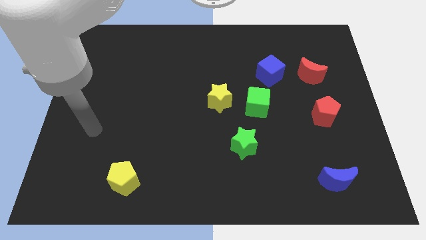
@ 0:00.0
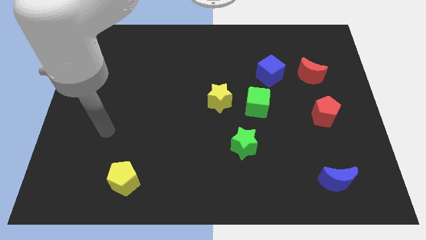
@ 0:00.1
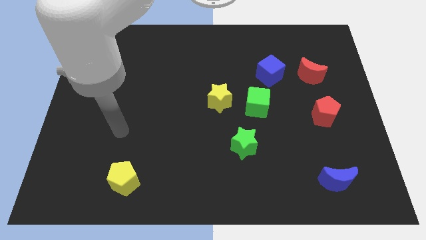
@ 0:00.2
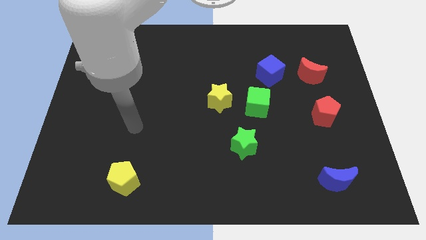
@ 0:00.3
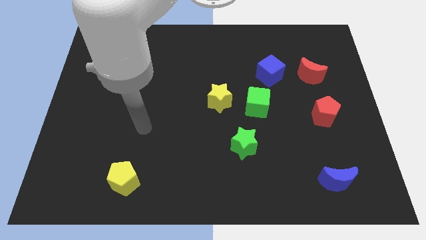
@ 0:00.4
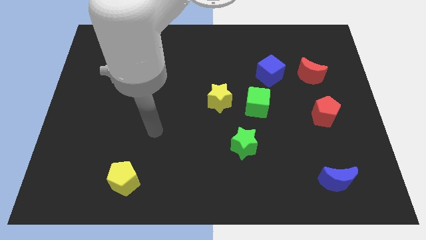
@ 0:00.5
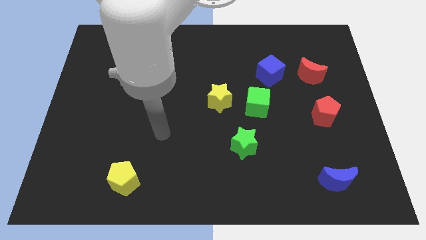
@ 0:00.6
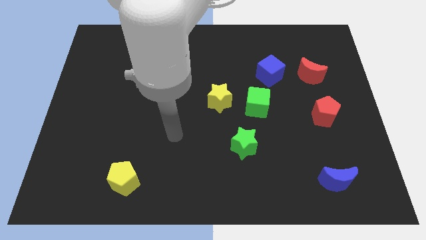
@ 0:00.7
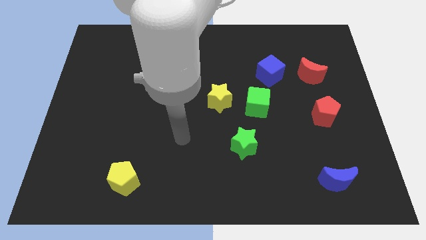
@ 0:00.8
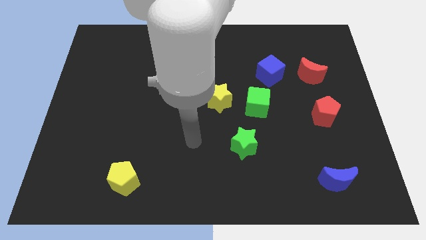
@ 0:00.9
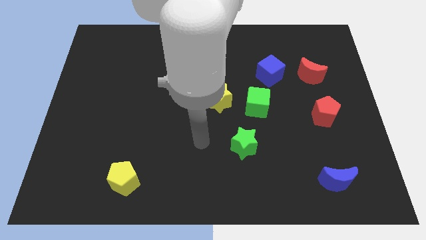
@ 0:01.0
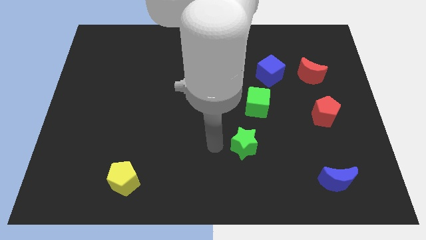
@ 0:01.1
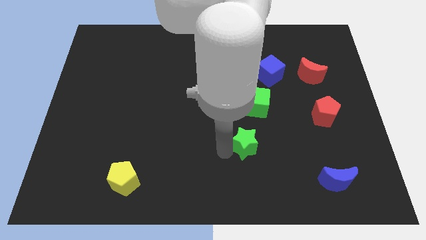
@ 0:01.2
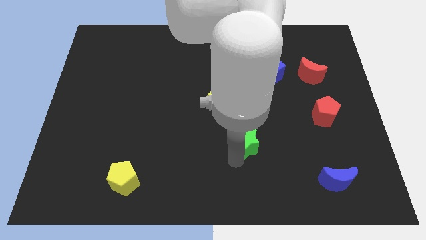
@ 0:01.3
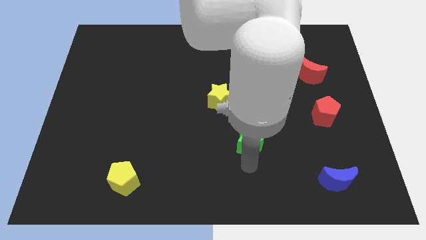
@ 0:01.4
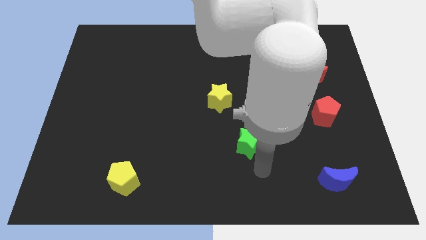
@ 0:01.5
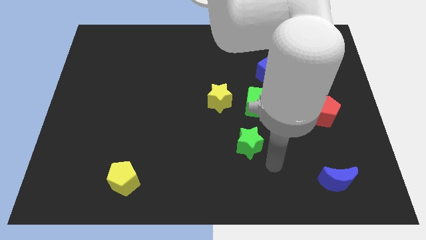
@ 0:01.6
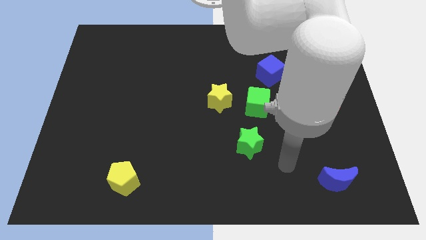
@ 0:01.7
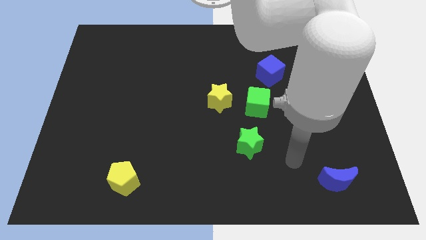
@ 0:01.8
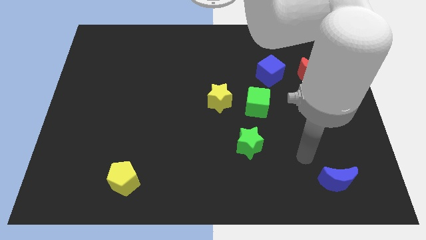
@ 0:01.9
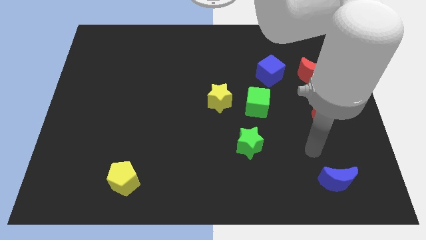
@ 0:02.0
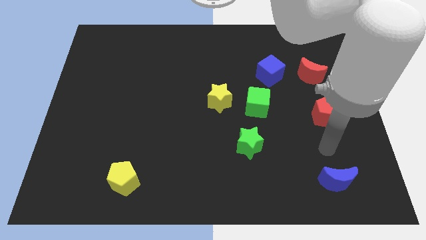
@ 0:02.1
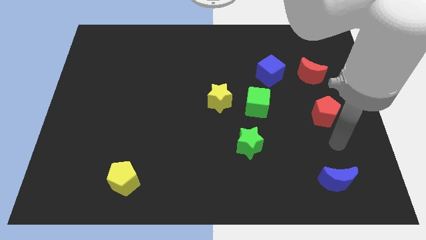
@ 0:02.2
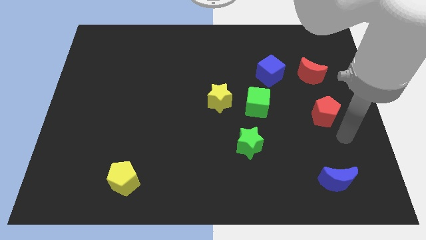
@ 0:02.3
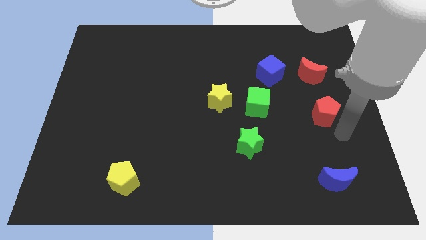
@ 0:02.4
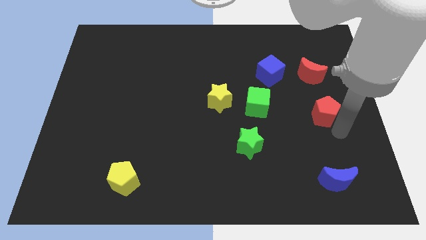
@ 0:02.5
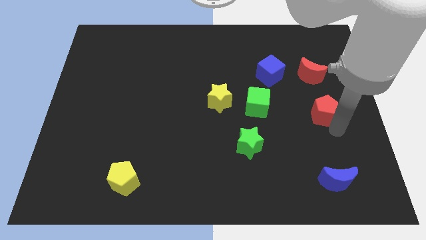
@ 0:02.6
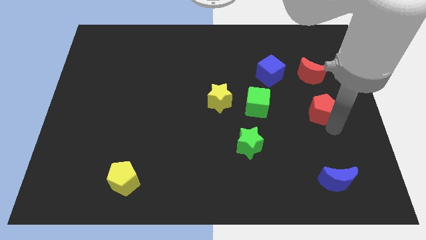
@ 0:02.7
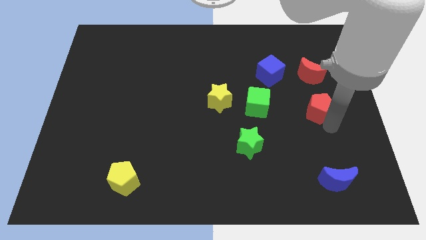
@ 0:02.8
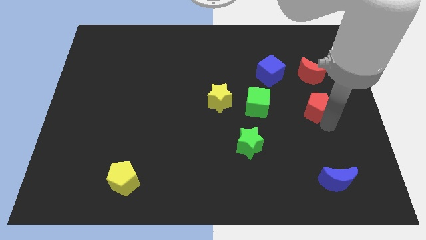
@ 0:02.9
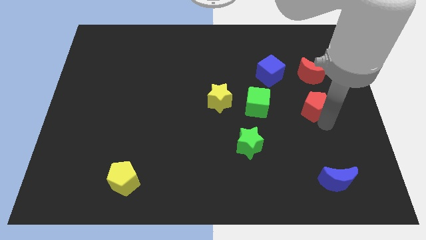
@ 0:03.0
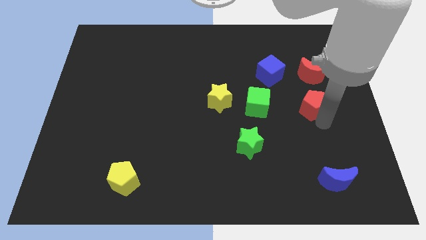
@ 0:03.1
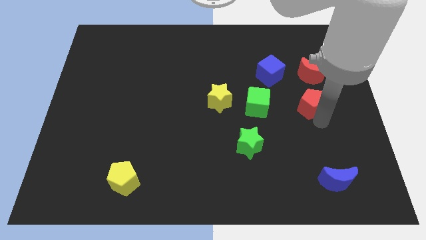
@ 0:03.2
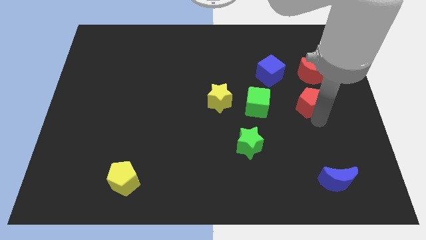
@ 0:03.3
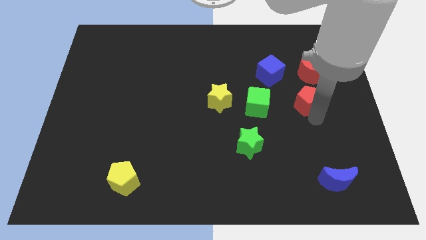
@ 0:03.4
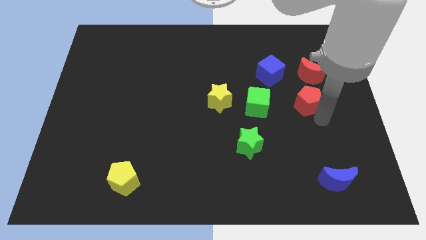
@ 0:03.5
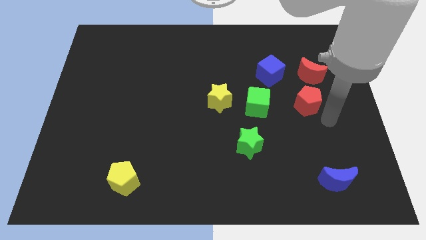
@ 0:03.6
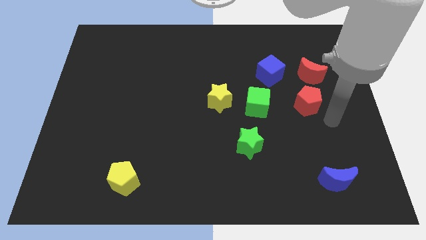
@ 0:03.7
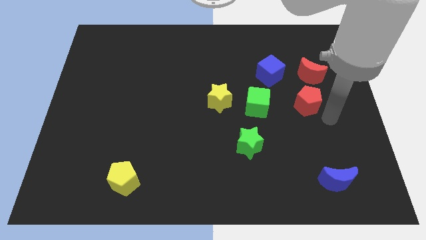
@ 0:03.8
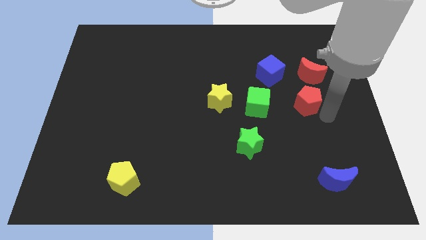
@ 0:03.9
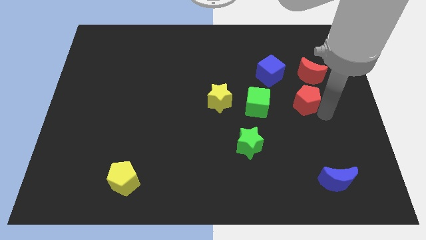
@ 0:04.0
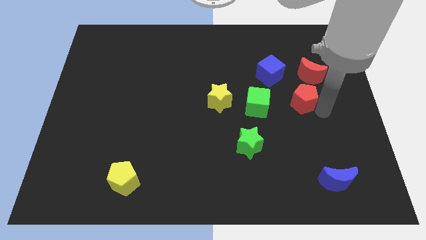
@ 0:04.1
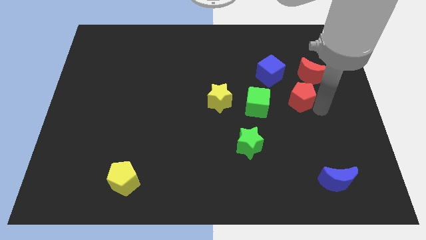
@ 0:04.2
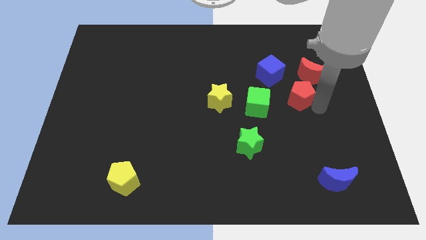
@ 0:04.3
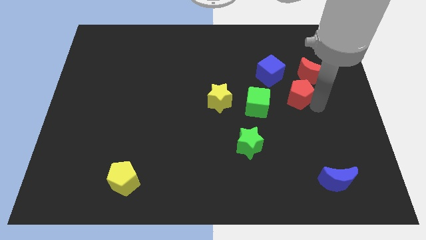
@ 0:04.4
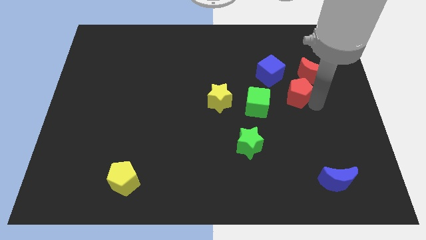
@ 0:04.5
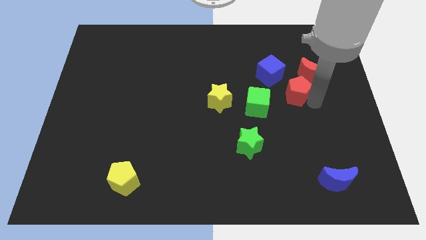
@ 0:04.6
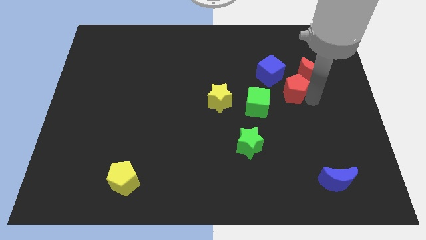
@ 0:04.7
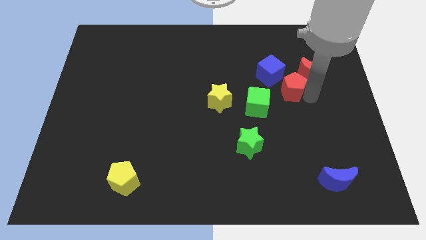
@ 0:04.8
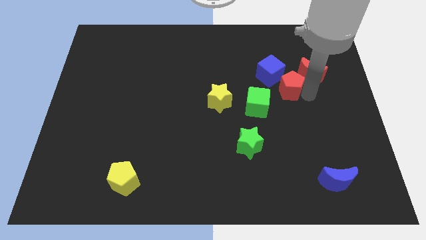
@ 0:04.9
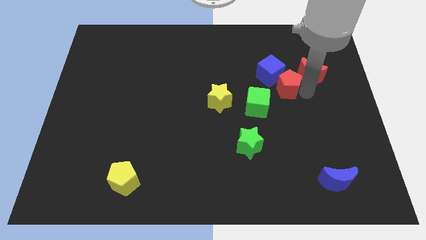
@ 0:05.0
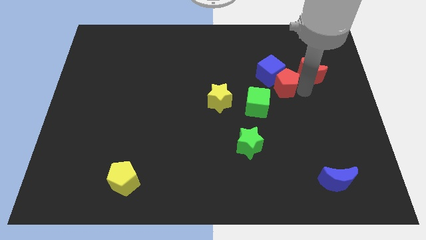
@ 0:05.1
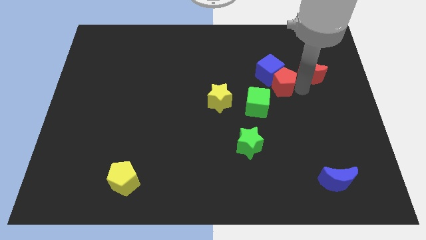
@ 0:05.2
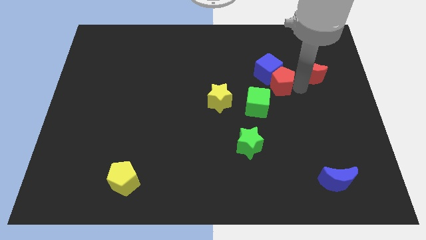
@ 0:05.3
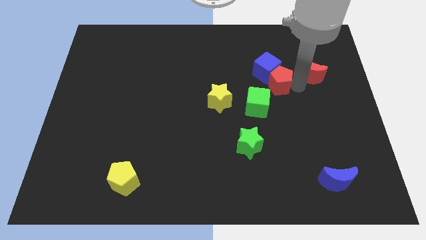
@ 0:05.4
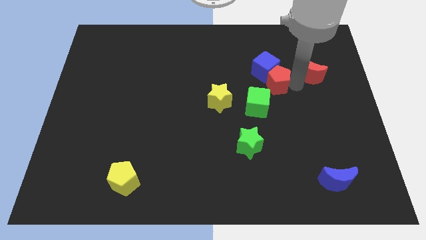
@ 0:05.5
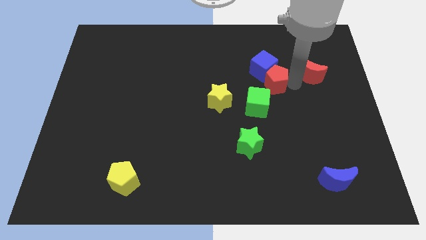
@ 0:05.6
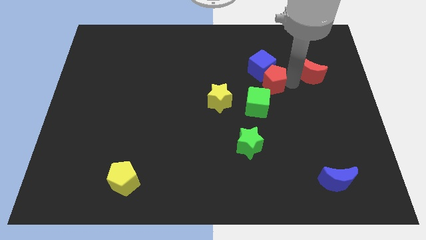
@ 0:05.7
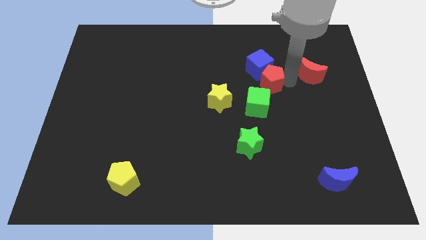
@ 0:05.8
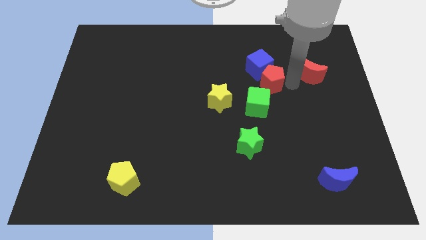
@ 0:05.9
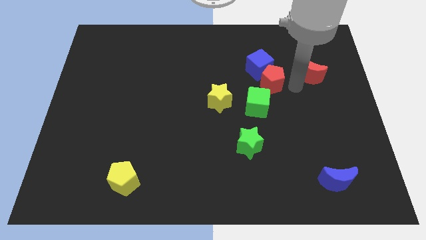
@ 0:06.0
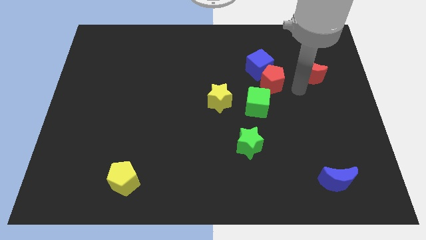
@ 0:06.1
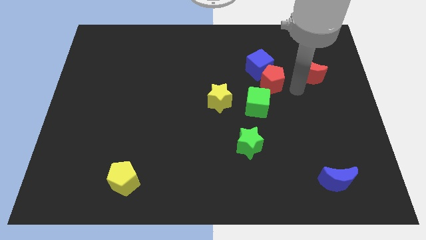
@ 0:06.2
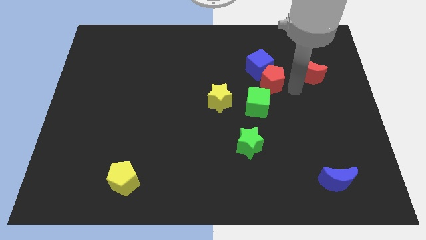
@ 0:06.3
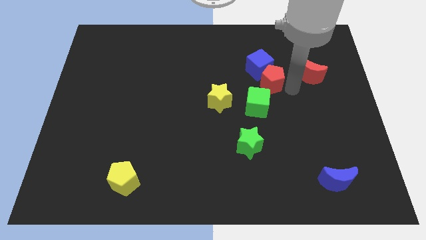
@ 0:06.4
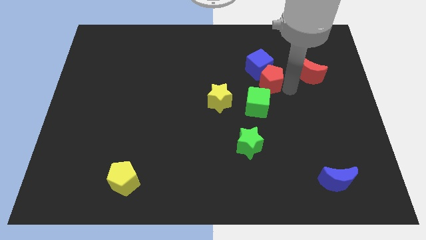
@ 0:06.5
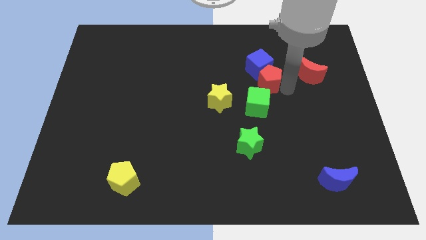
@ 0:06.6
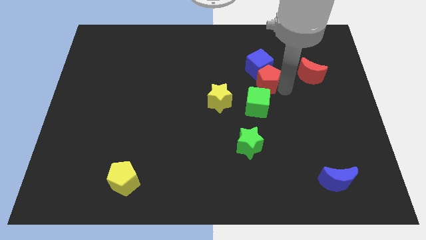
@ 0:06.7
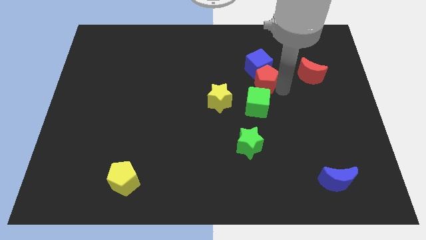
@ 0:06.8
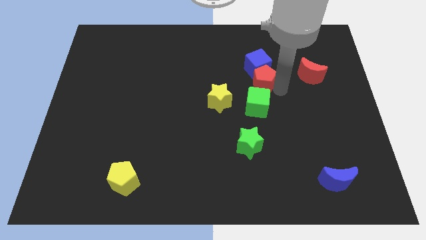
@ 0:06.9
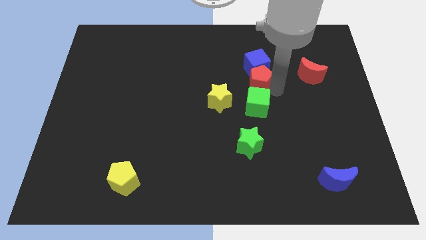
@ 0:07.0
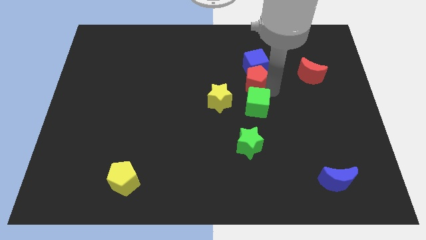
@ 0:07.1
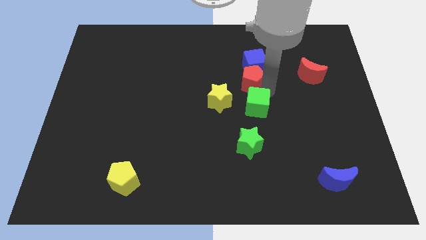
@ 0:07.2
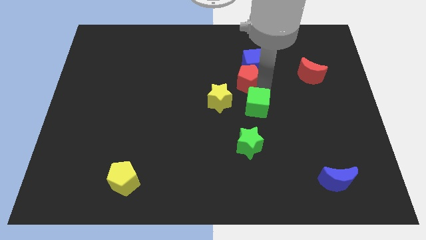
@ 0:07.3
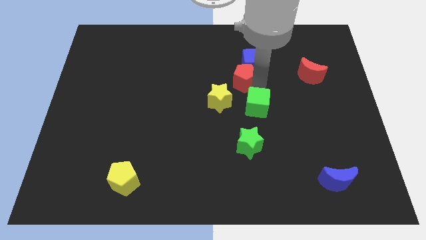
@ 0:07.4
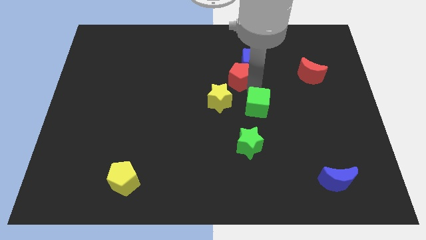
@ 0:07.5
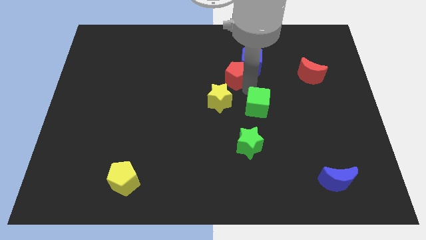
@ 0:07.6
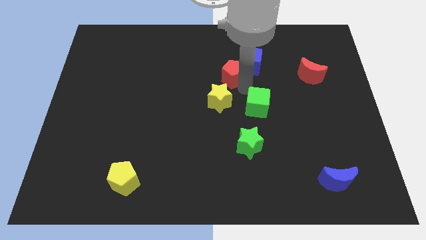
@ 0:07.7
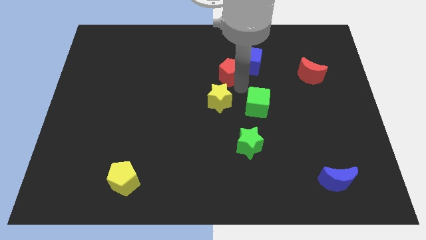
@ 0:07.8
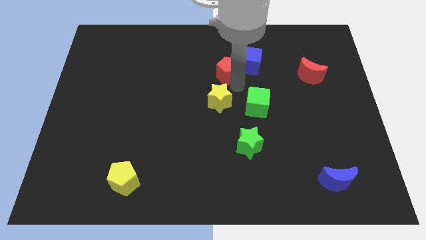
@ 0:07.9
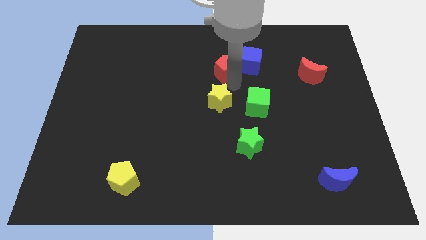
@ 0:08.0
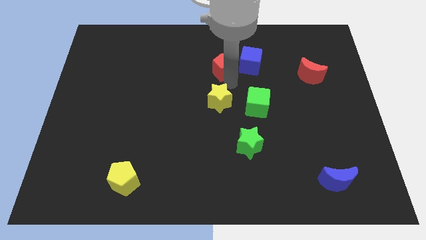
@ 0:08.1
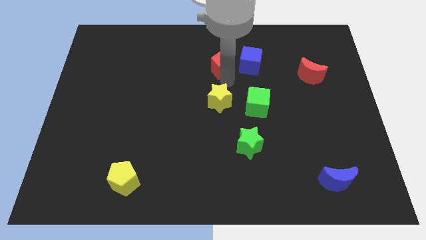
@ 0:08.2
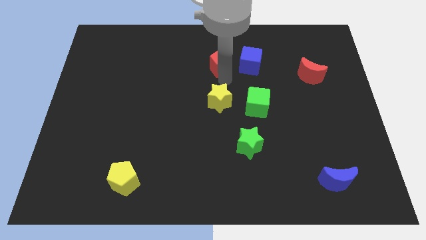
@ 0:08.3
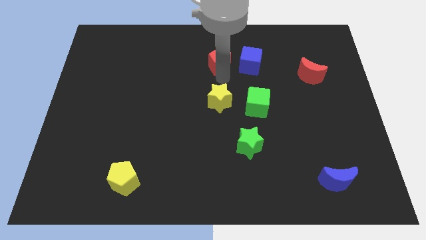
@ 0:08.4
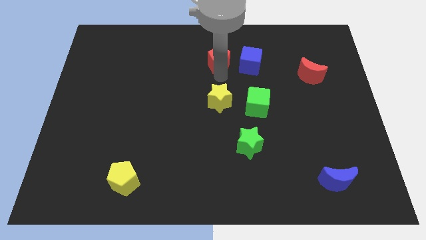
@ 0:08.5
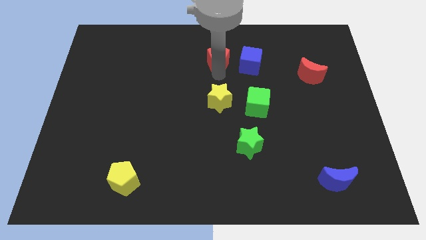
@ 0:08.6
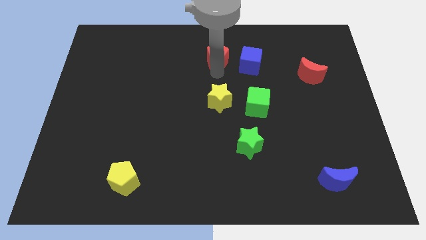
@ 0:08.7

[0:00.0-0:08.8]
move the red pentagon to the top left of the blue cube
